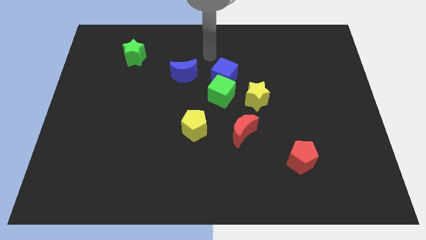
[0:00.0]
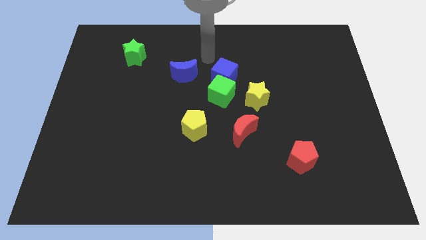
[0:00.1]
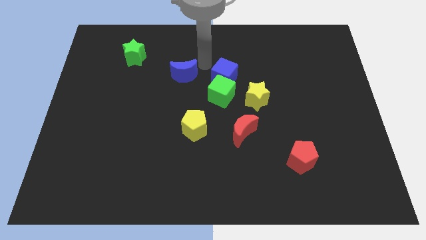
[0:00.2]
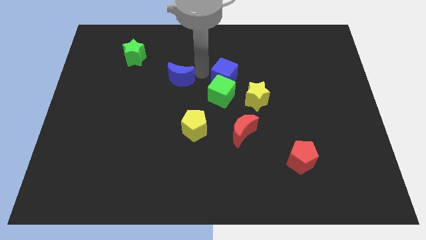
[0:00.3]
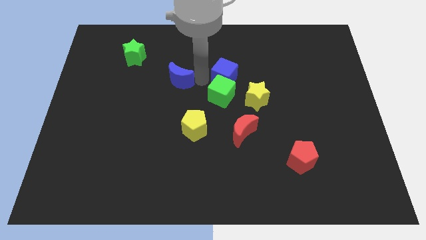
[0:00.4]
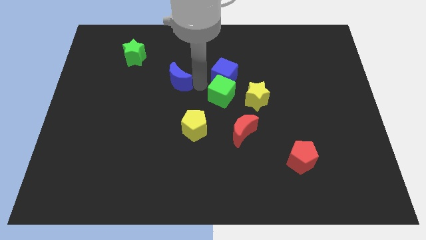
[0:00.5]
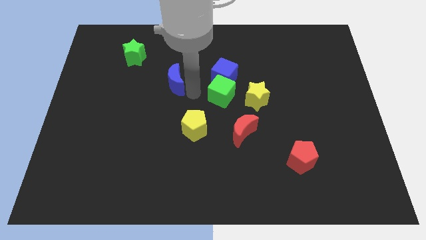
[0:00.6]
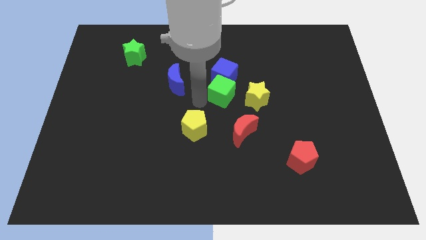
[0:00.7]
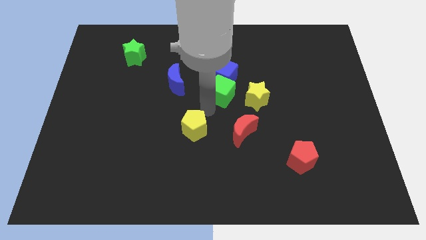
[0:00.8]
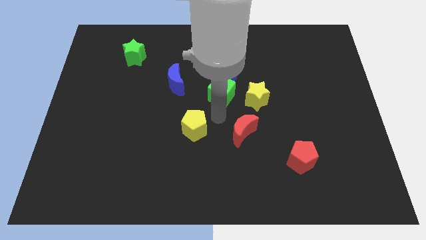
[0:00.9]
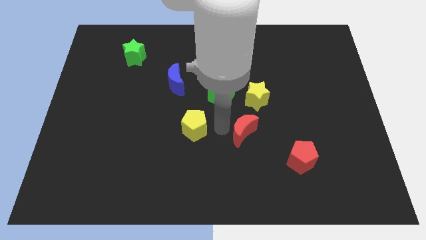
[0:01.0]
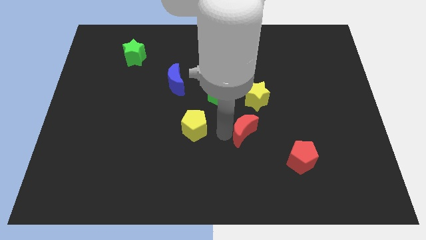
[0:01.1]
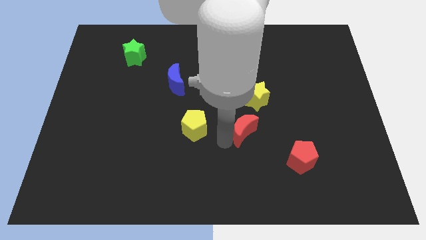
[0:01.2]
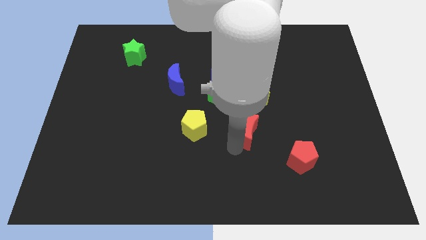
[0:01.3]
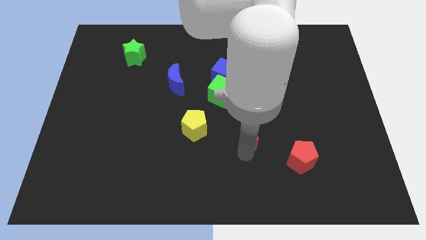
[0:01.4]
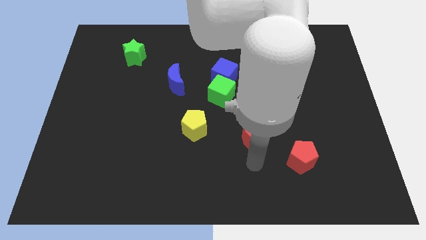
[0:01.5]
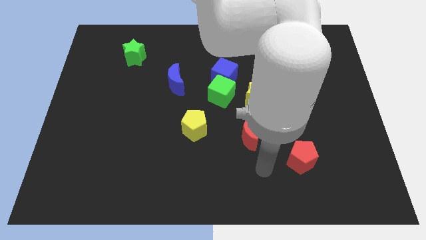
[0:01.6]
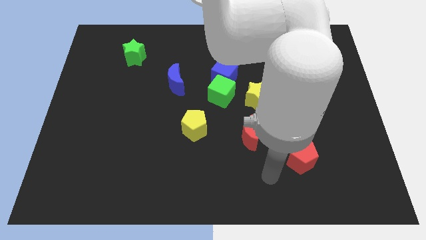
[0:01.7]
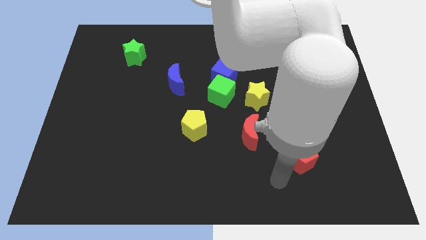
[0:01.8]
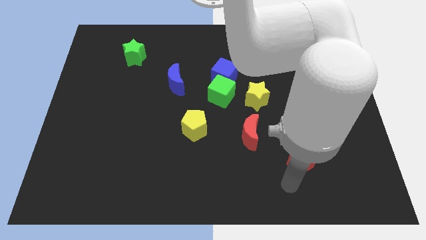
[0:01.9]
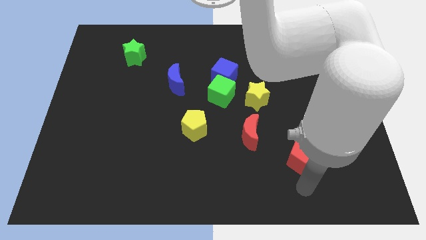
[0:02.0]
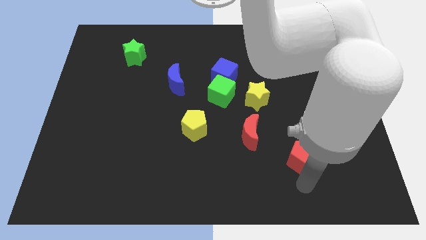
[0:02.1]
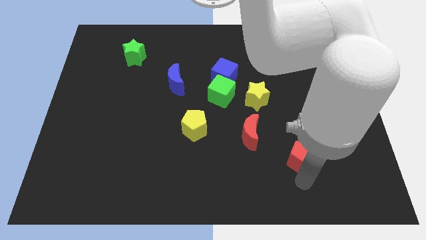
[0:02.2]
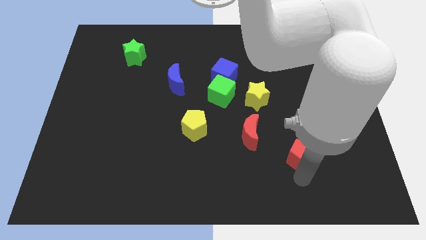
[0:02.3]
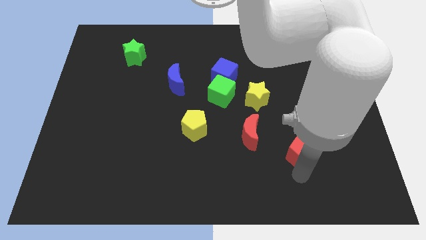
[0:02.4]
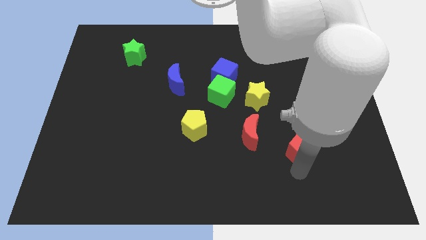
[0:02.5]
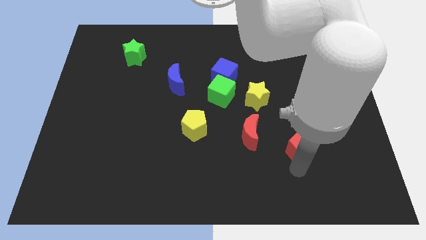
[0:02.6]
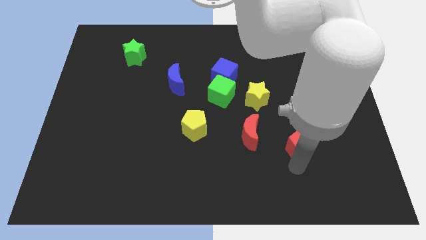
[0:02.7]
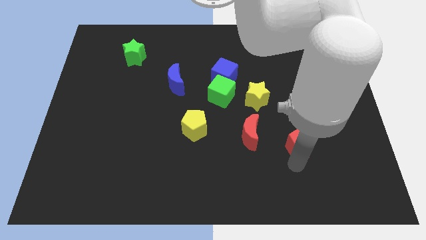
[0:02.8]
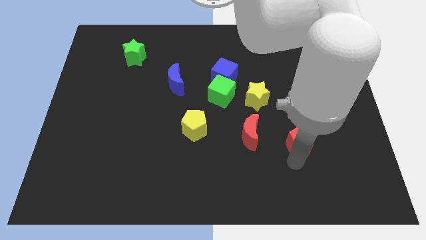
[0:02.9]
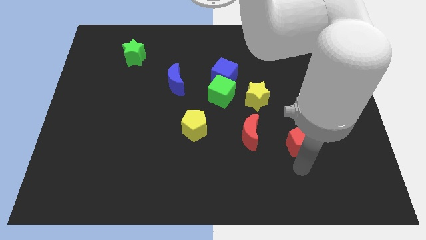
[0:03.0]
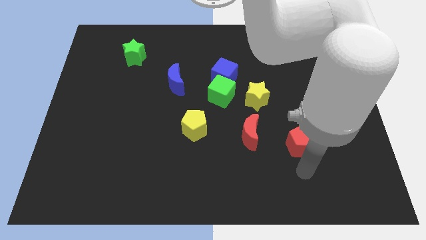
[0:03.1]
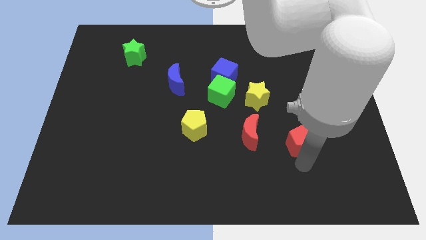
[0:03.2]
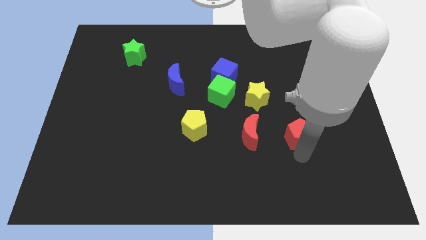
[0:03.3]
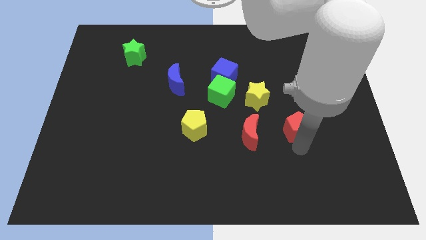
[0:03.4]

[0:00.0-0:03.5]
push the red pentagon a bit upwards

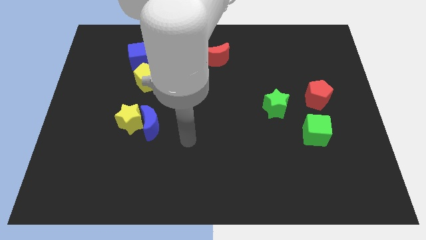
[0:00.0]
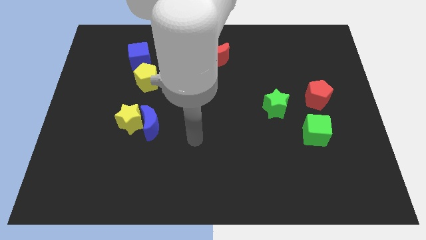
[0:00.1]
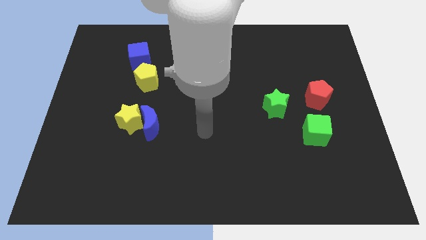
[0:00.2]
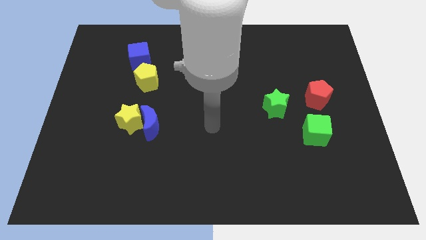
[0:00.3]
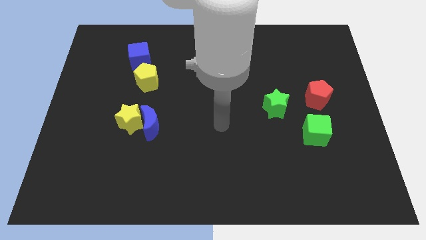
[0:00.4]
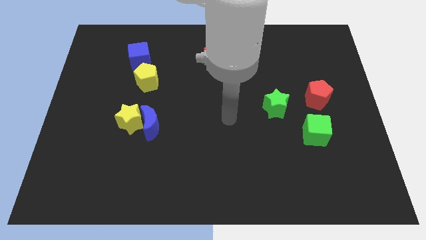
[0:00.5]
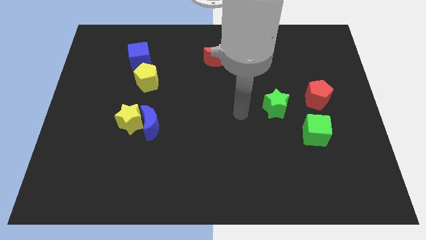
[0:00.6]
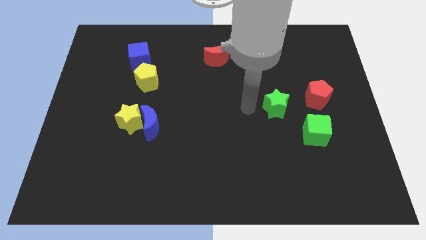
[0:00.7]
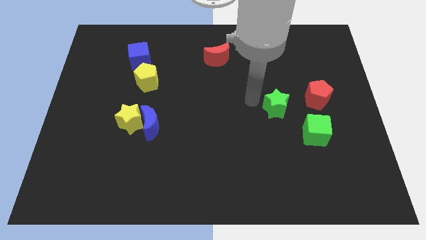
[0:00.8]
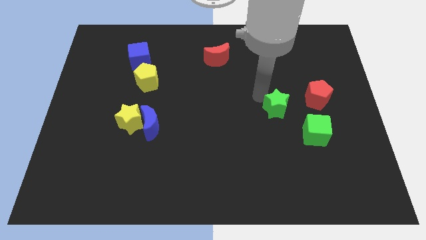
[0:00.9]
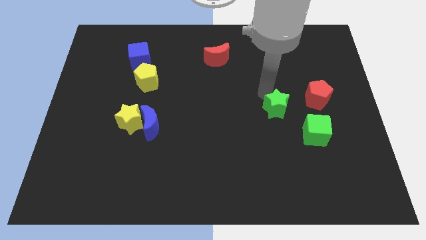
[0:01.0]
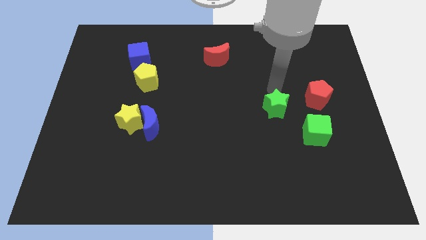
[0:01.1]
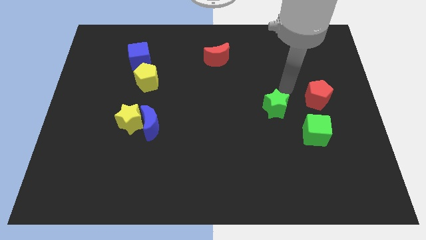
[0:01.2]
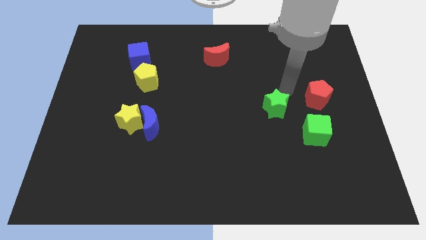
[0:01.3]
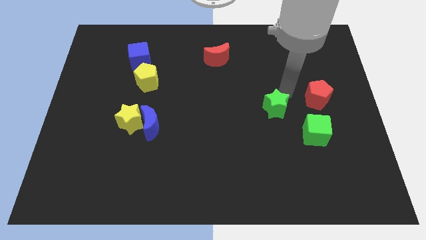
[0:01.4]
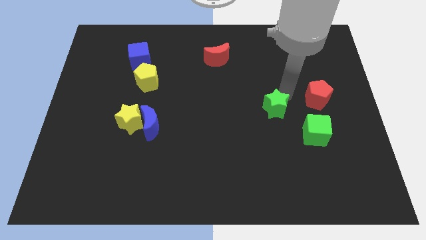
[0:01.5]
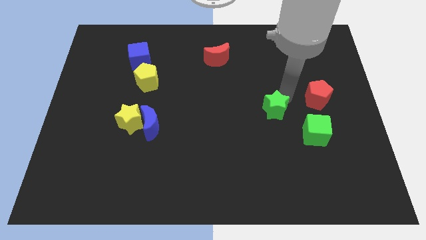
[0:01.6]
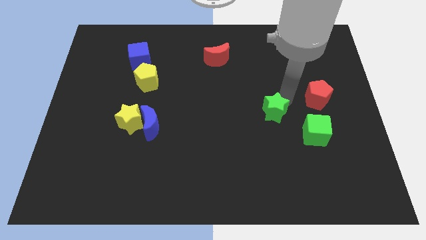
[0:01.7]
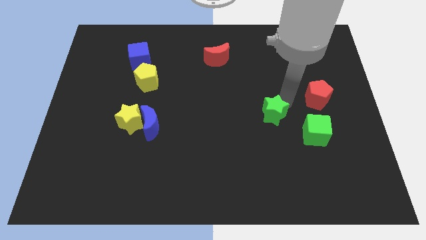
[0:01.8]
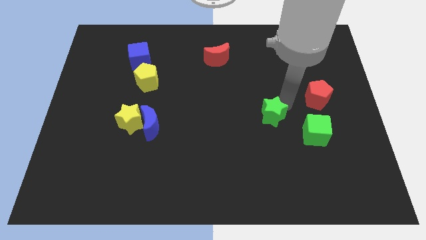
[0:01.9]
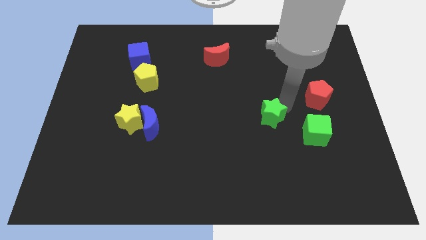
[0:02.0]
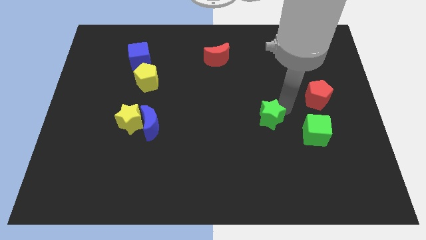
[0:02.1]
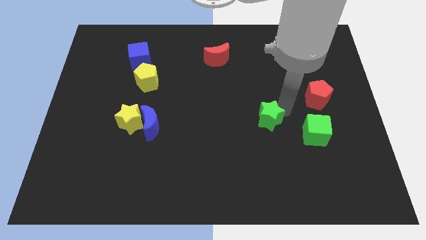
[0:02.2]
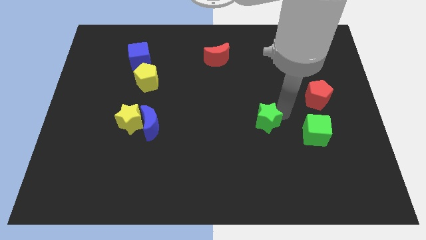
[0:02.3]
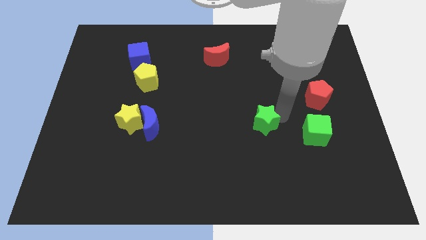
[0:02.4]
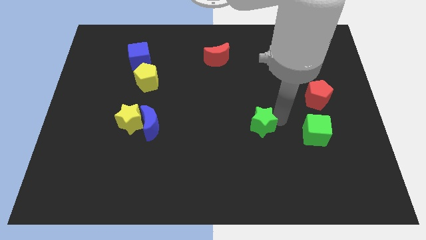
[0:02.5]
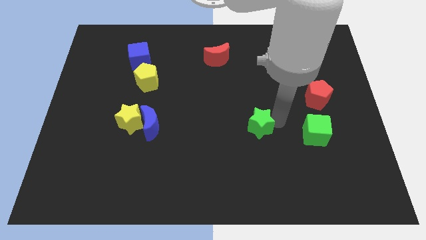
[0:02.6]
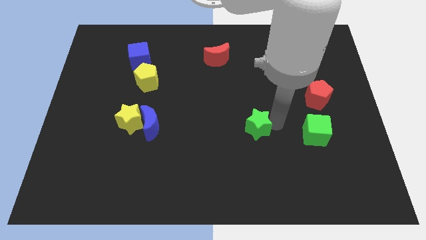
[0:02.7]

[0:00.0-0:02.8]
move the green star diagonally downwards and left slightly

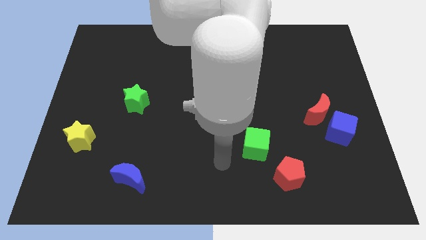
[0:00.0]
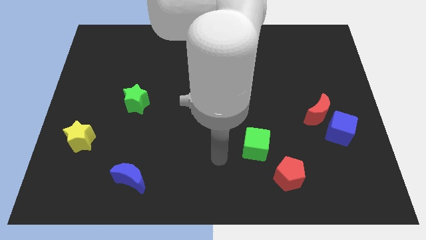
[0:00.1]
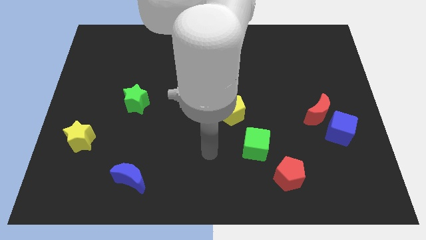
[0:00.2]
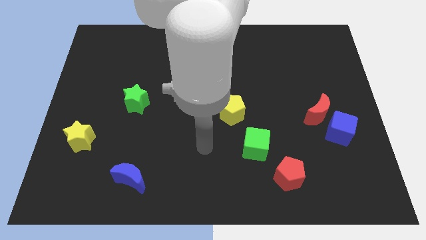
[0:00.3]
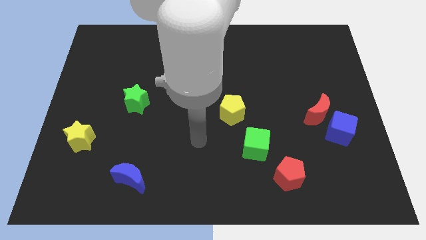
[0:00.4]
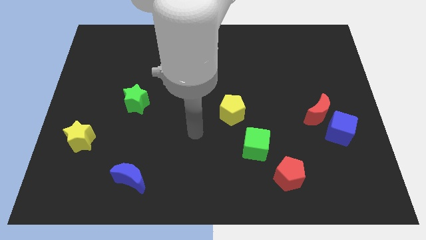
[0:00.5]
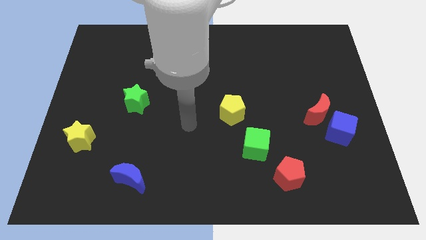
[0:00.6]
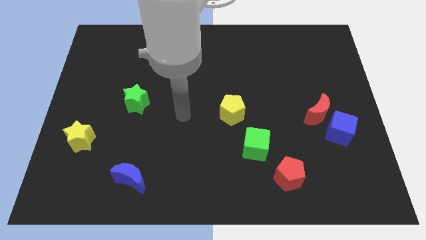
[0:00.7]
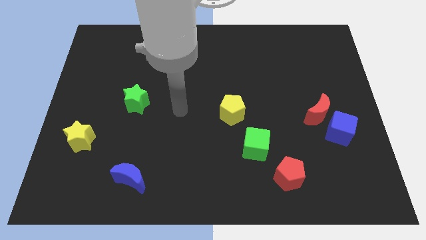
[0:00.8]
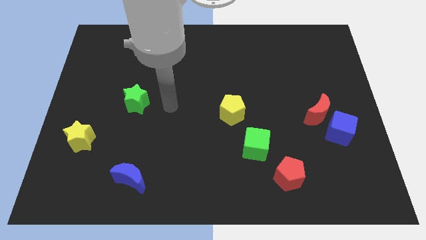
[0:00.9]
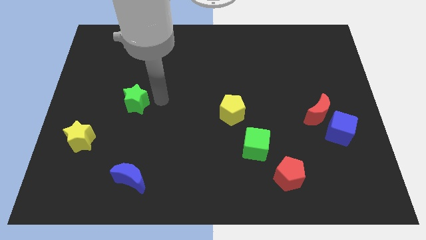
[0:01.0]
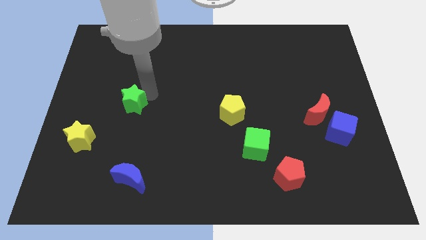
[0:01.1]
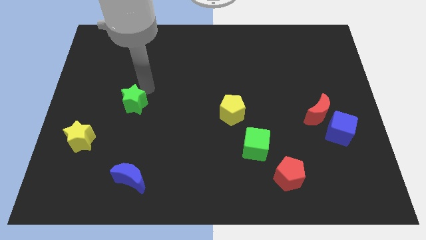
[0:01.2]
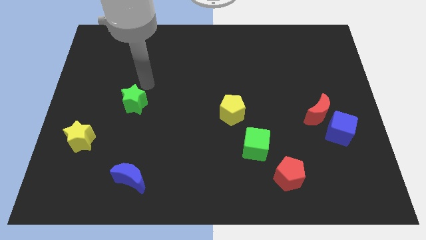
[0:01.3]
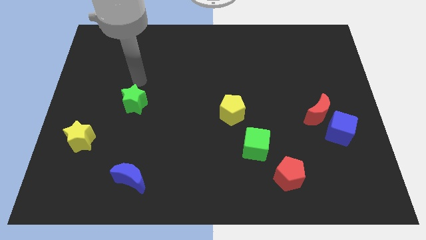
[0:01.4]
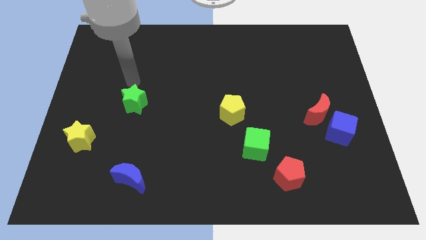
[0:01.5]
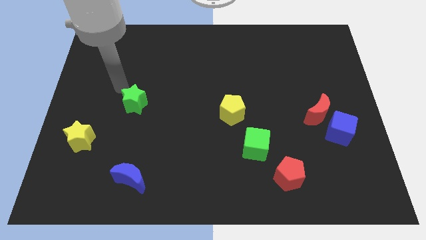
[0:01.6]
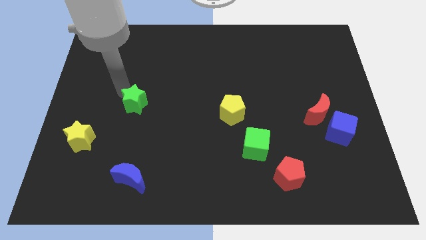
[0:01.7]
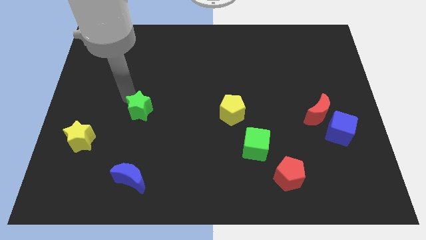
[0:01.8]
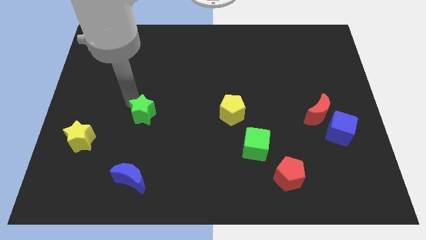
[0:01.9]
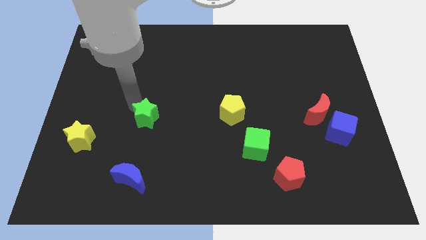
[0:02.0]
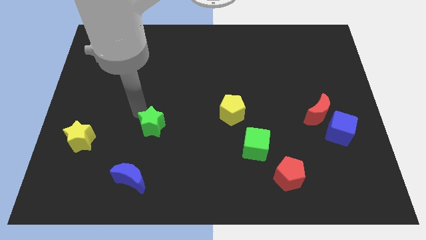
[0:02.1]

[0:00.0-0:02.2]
move the green star somewhat downwards and to the right diagonally
